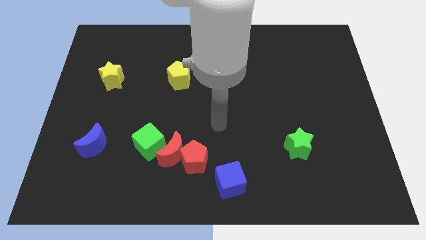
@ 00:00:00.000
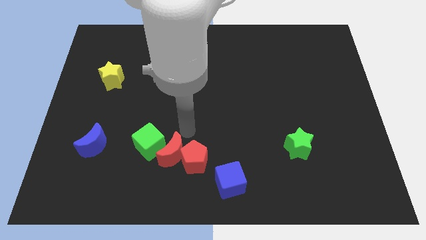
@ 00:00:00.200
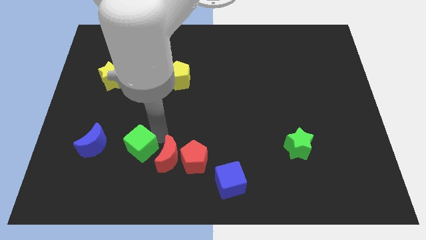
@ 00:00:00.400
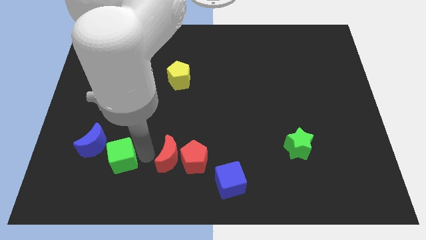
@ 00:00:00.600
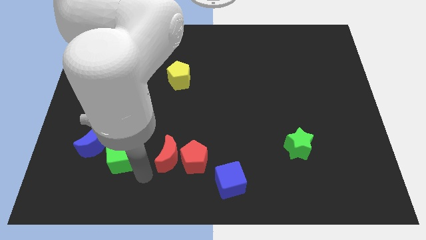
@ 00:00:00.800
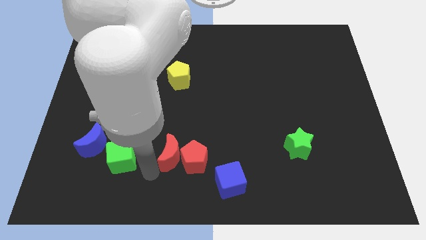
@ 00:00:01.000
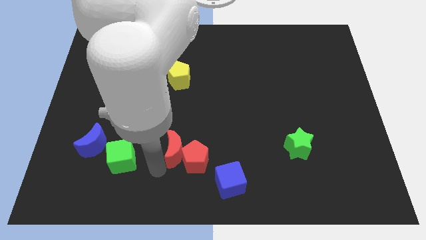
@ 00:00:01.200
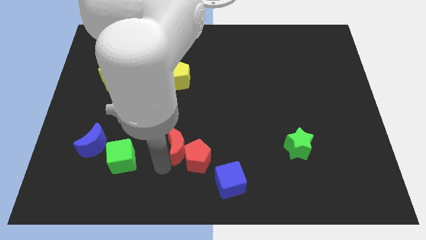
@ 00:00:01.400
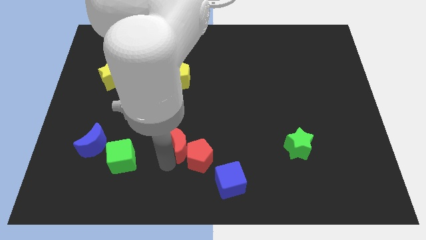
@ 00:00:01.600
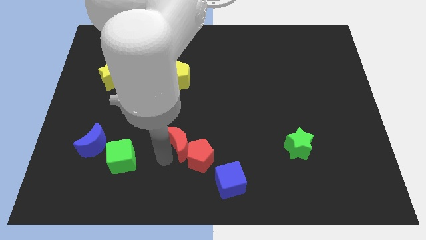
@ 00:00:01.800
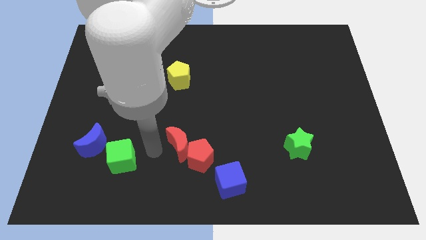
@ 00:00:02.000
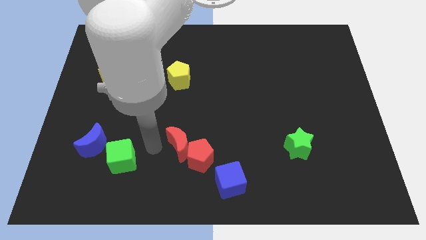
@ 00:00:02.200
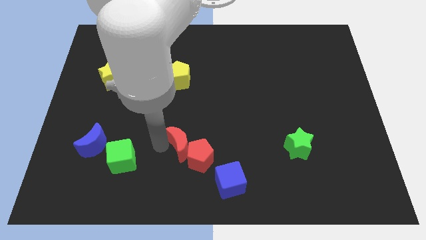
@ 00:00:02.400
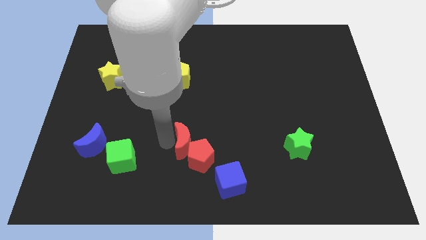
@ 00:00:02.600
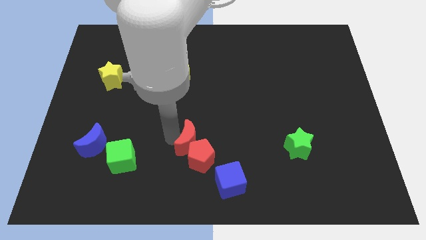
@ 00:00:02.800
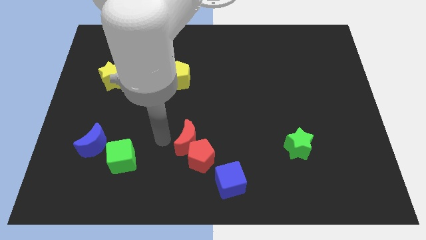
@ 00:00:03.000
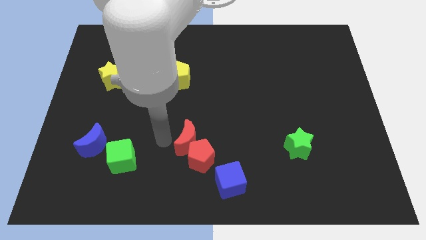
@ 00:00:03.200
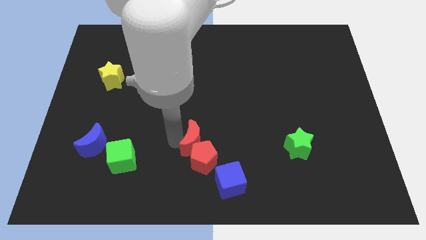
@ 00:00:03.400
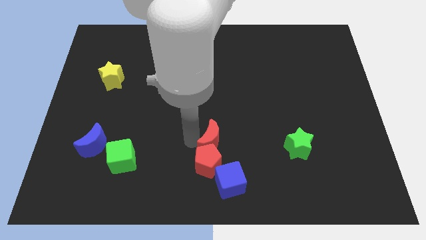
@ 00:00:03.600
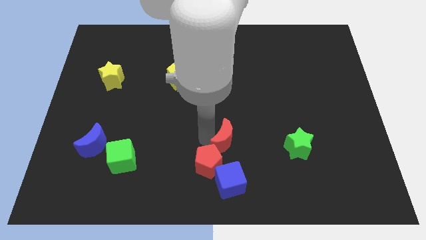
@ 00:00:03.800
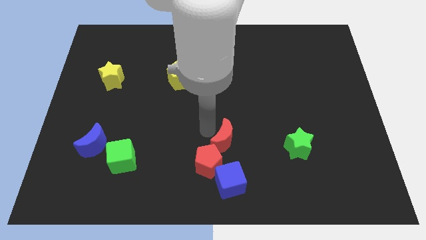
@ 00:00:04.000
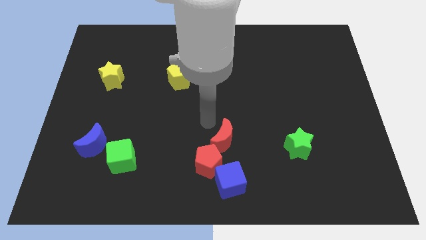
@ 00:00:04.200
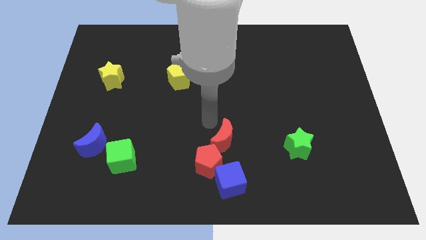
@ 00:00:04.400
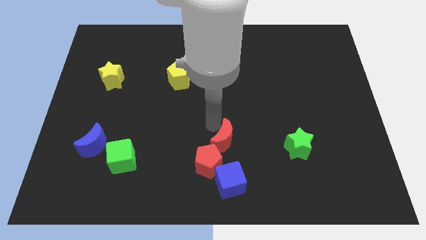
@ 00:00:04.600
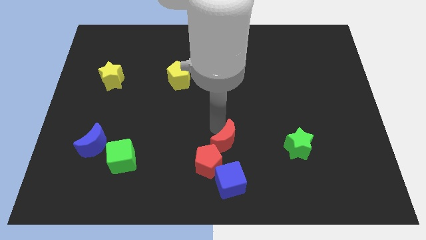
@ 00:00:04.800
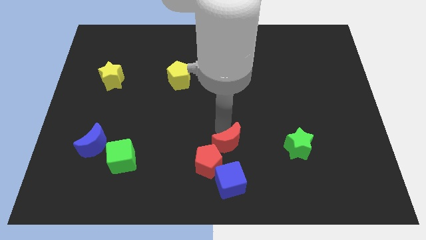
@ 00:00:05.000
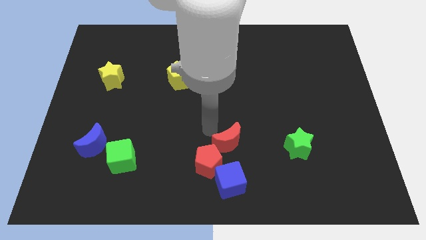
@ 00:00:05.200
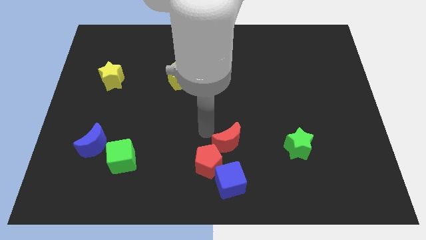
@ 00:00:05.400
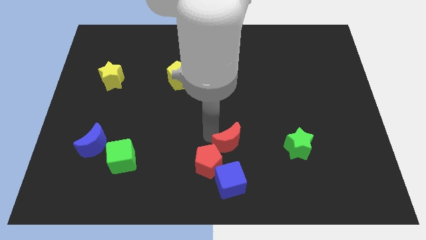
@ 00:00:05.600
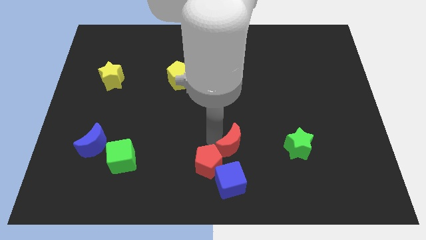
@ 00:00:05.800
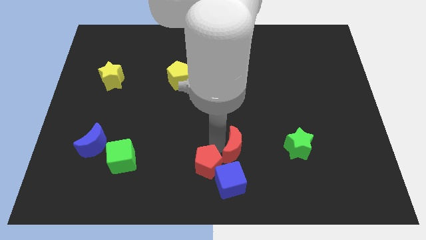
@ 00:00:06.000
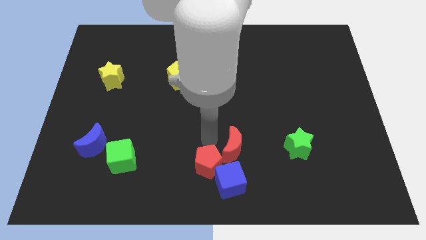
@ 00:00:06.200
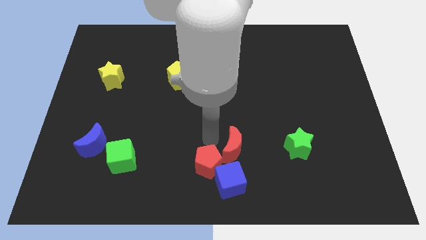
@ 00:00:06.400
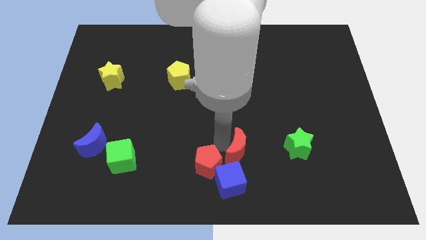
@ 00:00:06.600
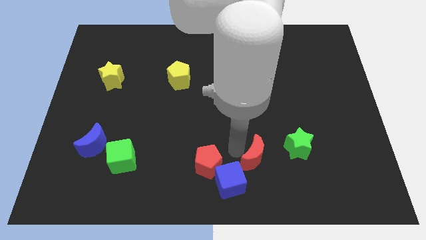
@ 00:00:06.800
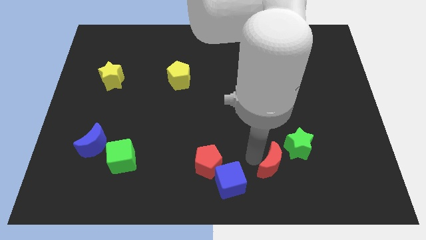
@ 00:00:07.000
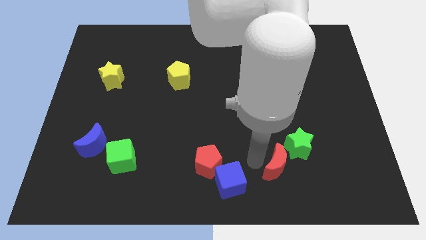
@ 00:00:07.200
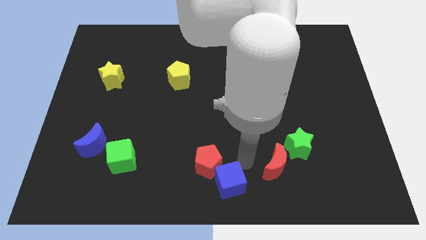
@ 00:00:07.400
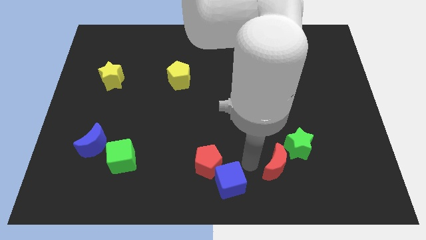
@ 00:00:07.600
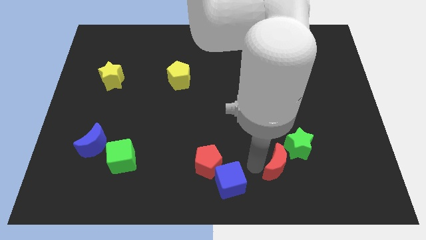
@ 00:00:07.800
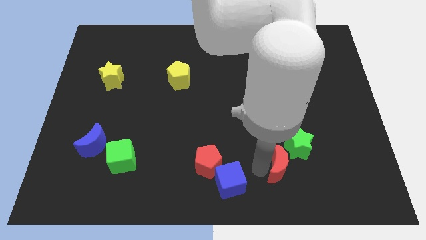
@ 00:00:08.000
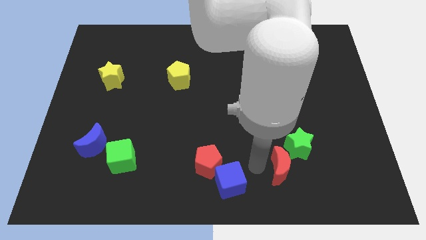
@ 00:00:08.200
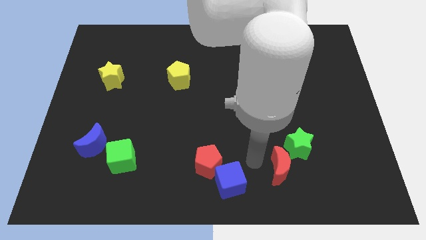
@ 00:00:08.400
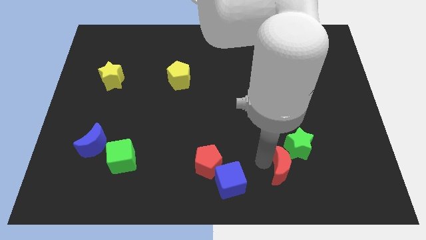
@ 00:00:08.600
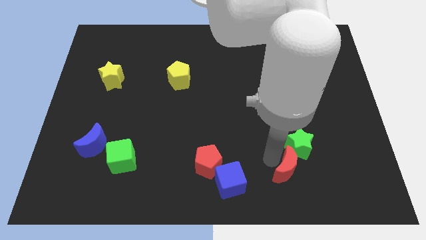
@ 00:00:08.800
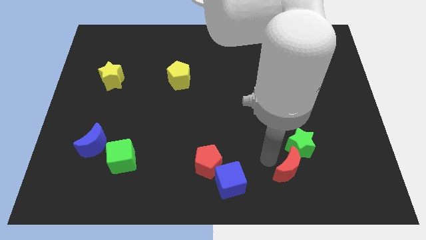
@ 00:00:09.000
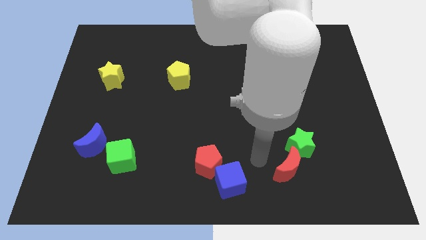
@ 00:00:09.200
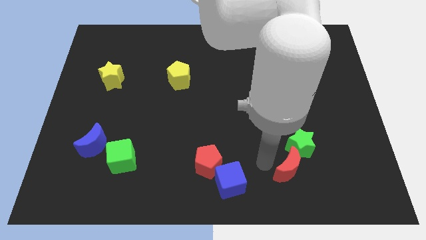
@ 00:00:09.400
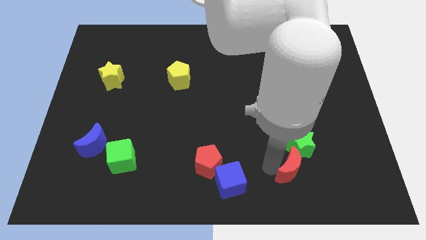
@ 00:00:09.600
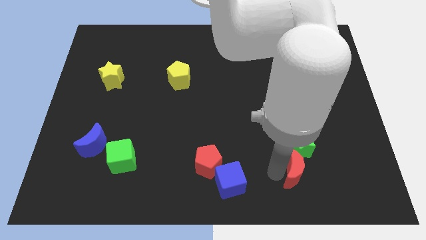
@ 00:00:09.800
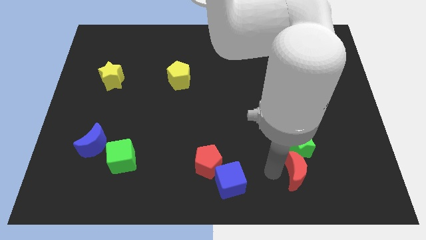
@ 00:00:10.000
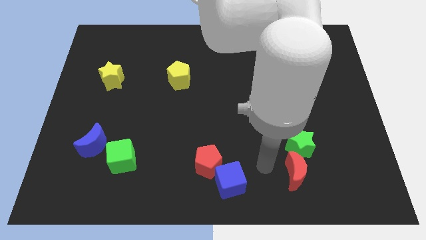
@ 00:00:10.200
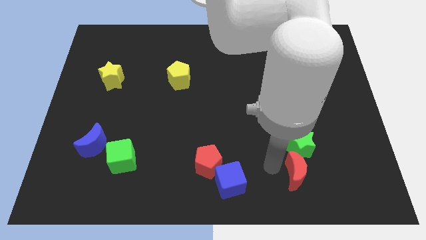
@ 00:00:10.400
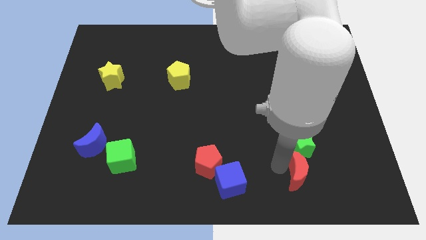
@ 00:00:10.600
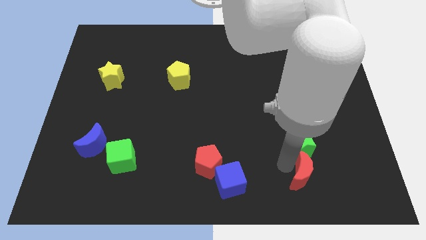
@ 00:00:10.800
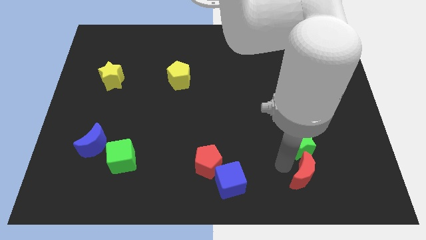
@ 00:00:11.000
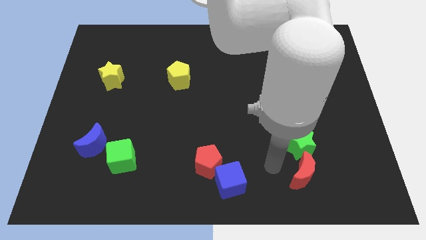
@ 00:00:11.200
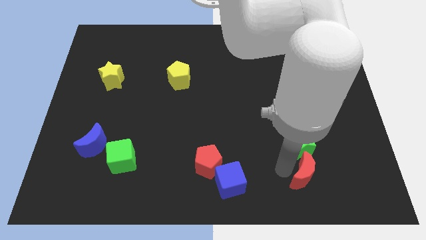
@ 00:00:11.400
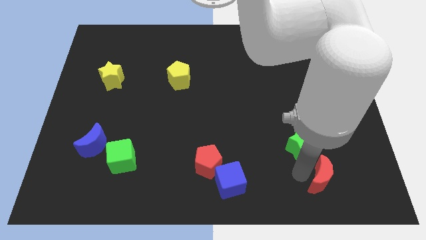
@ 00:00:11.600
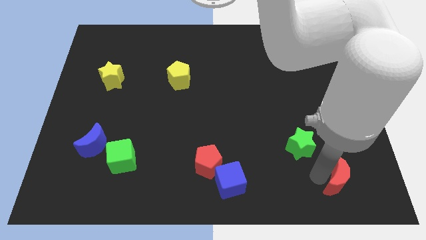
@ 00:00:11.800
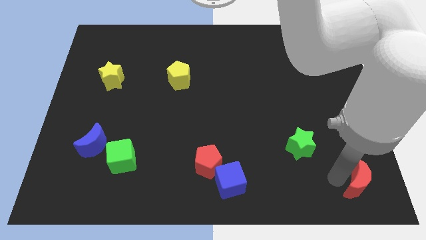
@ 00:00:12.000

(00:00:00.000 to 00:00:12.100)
push the red moon to the bottom right of the board
